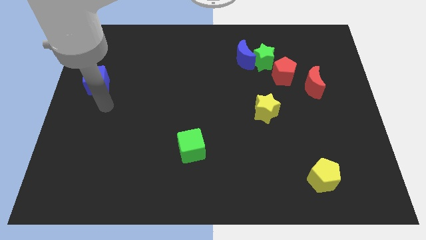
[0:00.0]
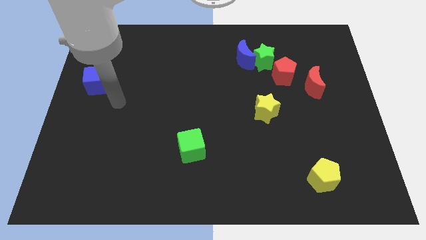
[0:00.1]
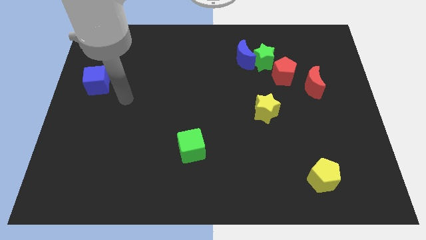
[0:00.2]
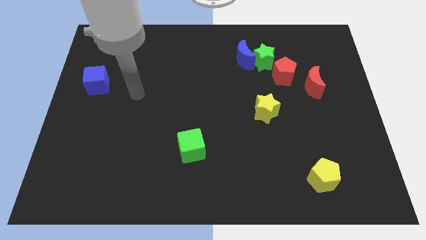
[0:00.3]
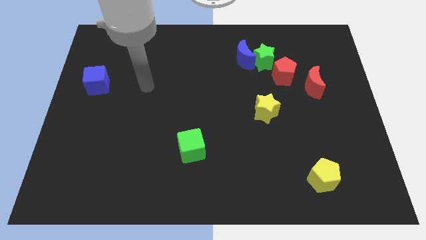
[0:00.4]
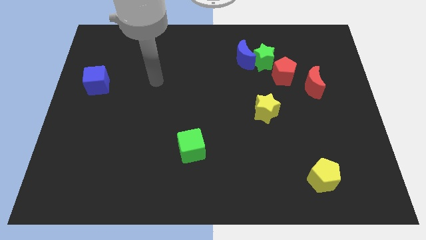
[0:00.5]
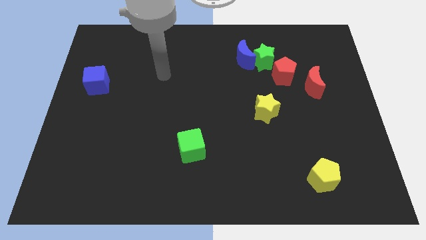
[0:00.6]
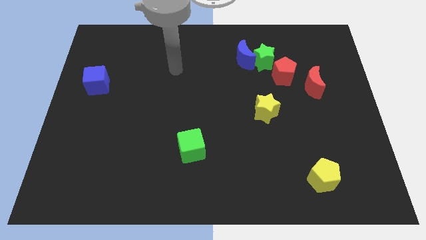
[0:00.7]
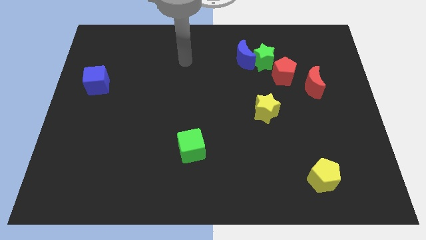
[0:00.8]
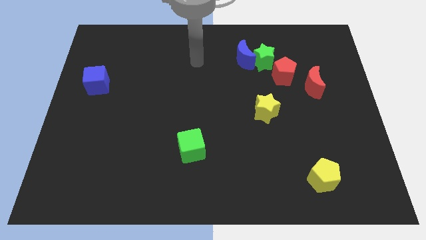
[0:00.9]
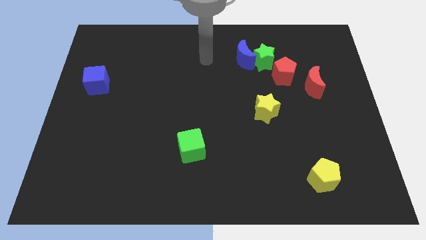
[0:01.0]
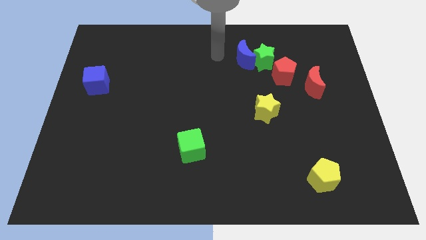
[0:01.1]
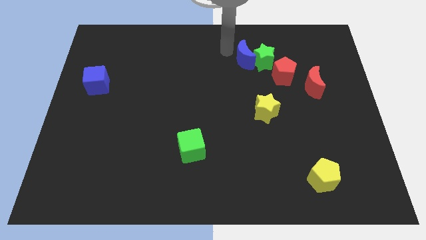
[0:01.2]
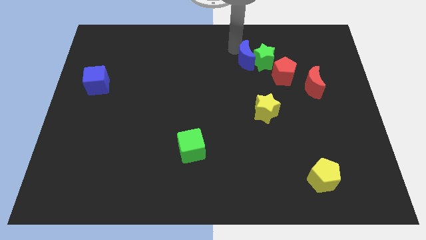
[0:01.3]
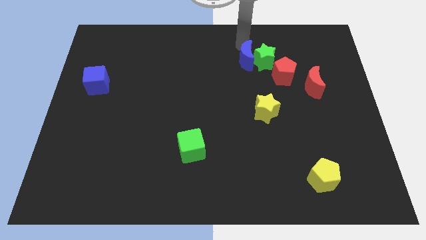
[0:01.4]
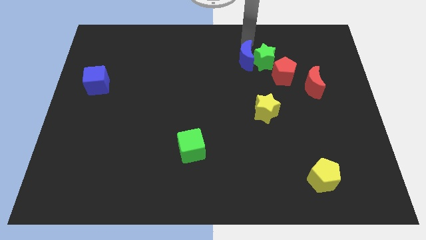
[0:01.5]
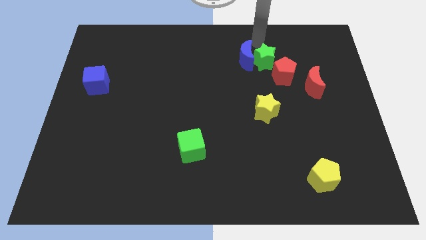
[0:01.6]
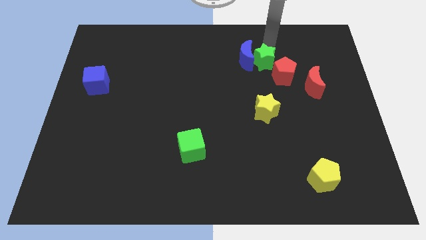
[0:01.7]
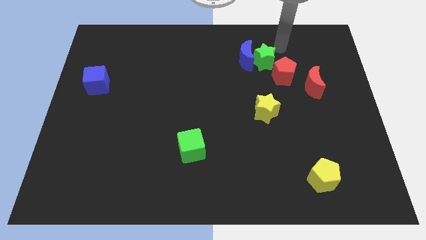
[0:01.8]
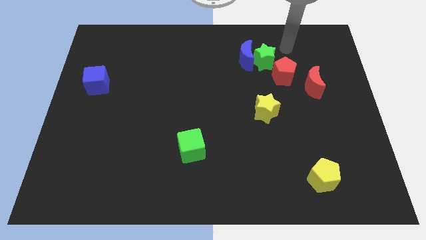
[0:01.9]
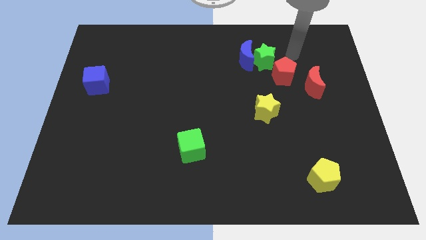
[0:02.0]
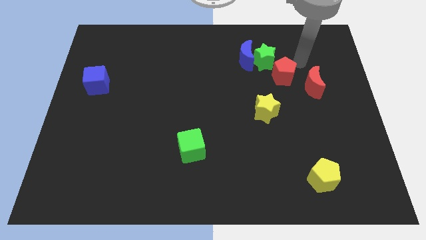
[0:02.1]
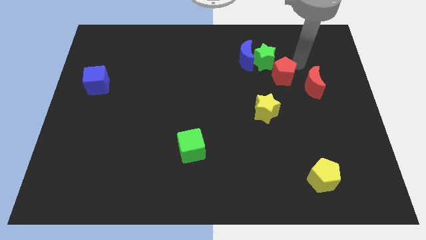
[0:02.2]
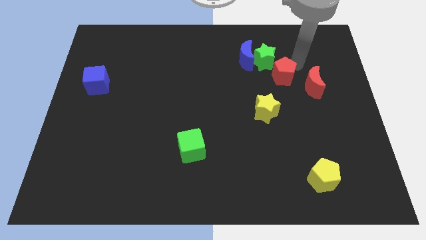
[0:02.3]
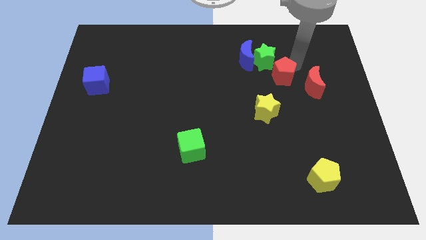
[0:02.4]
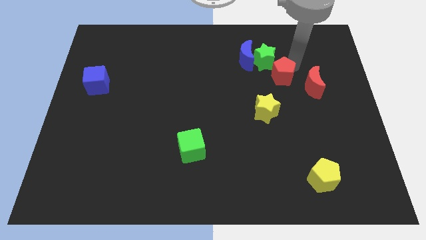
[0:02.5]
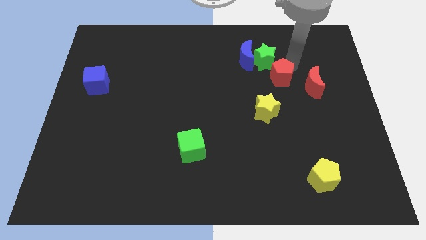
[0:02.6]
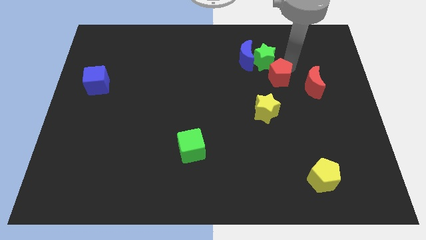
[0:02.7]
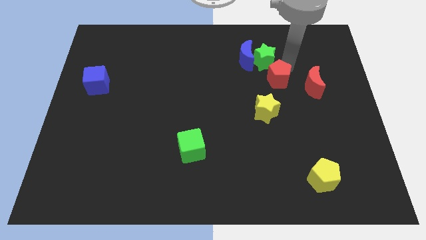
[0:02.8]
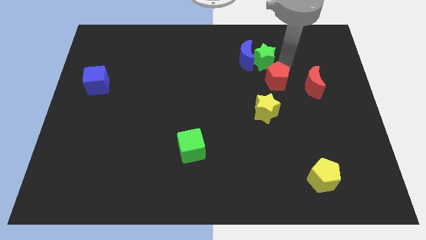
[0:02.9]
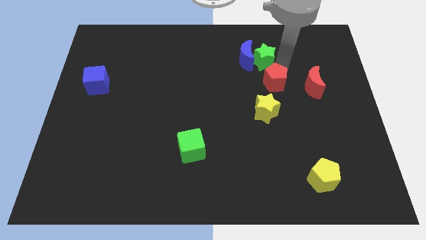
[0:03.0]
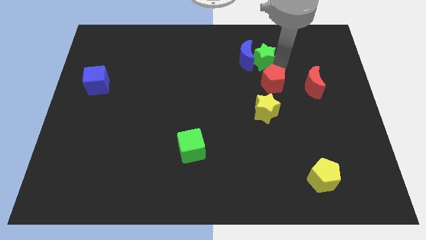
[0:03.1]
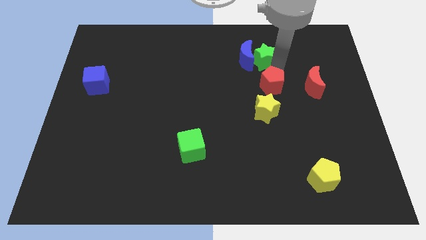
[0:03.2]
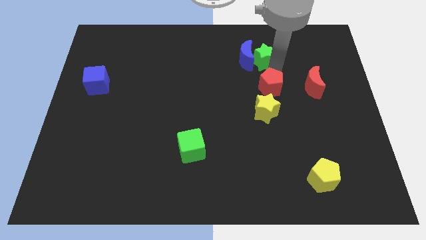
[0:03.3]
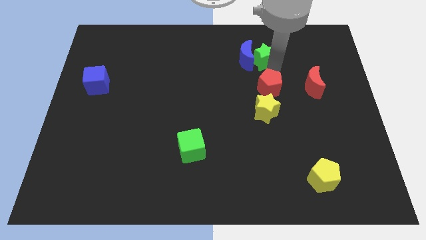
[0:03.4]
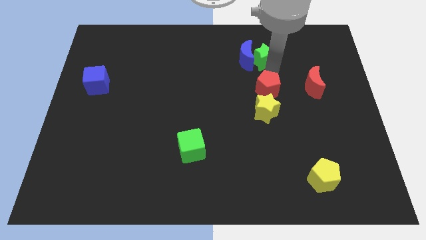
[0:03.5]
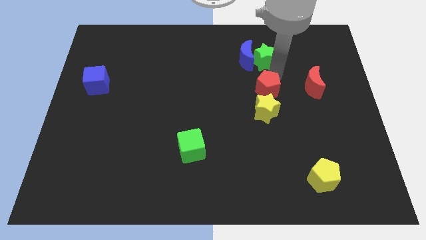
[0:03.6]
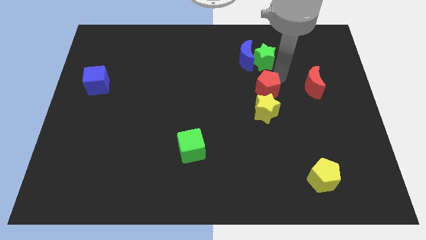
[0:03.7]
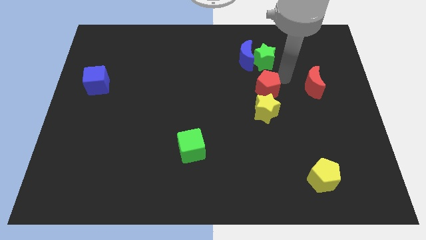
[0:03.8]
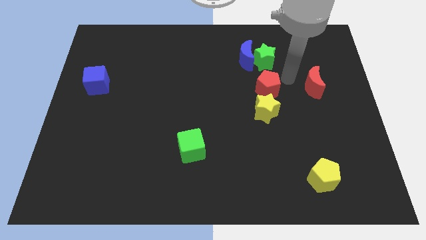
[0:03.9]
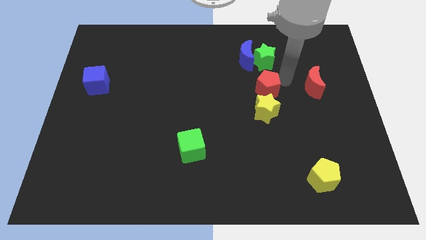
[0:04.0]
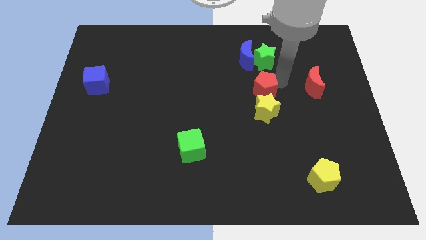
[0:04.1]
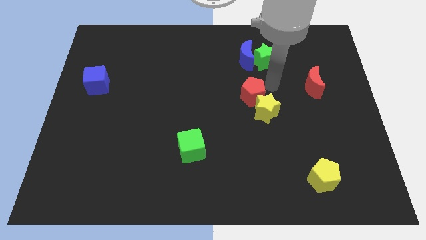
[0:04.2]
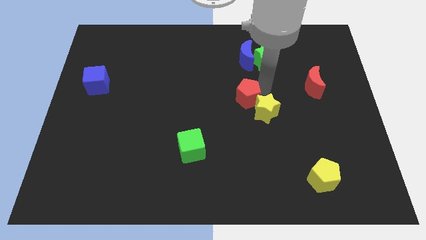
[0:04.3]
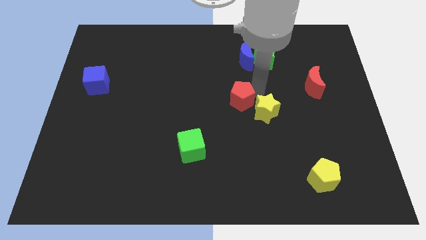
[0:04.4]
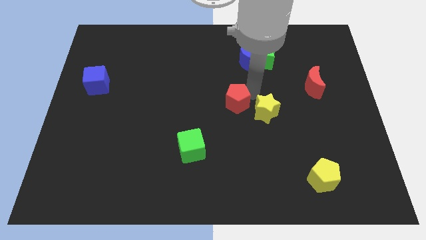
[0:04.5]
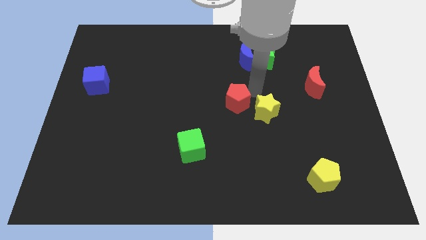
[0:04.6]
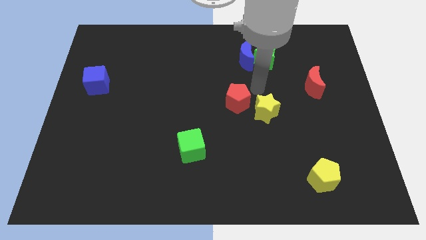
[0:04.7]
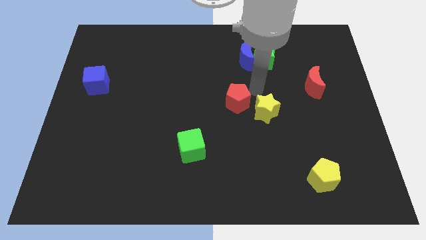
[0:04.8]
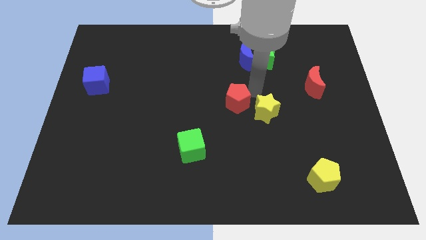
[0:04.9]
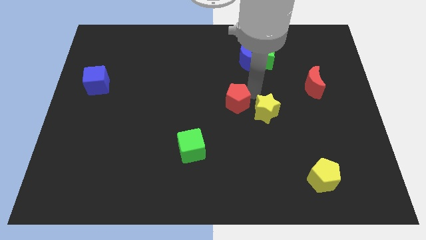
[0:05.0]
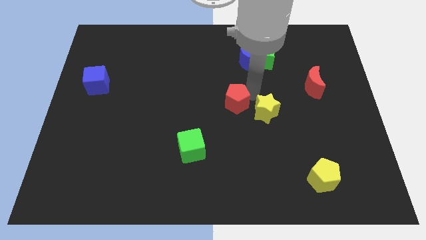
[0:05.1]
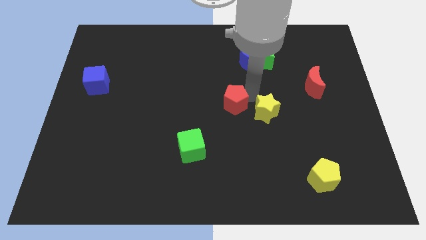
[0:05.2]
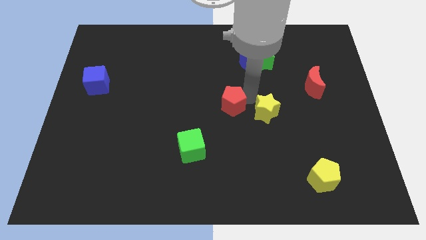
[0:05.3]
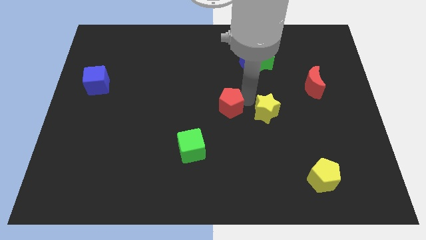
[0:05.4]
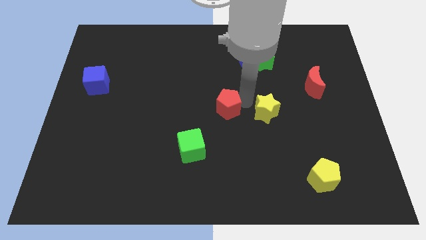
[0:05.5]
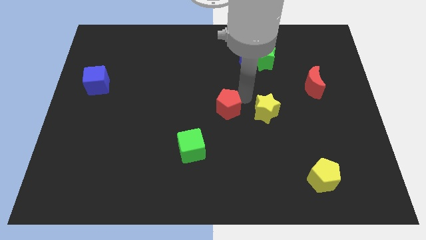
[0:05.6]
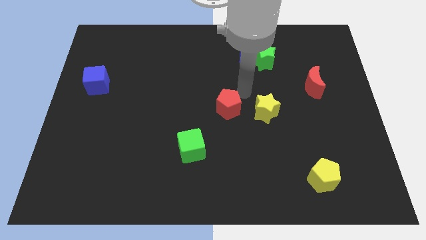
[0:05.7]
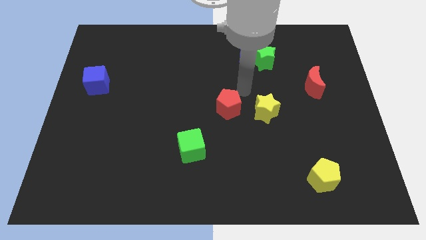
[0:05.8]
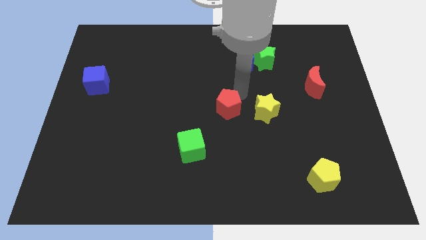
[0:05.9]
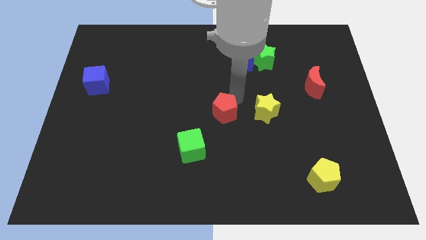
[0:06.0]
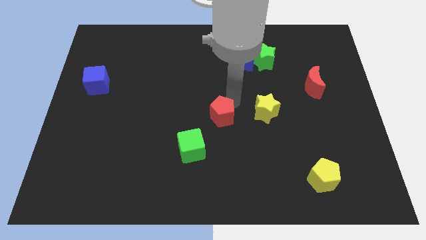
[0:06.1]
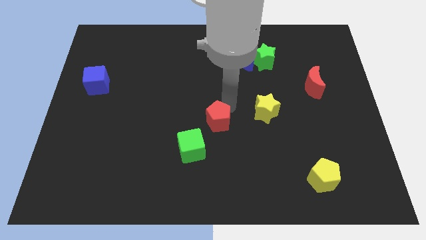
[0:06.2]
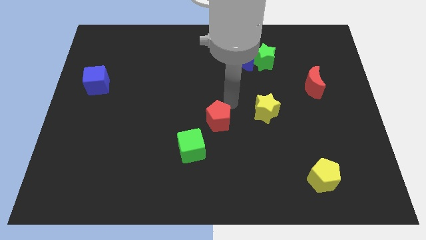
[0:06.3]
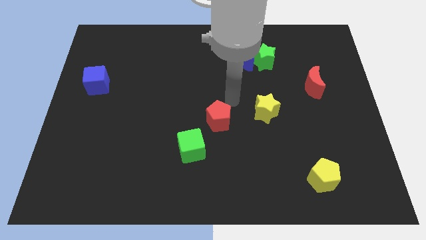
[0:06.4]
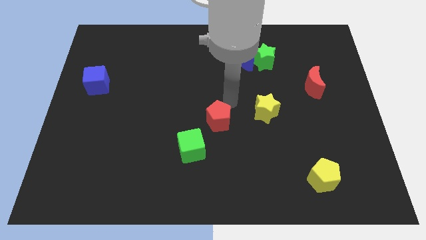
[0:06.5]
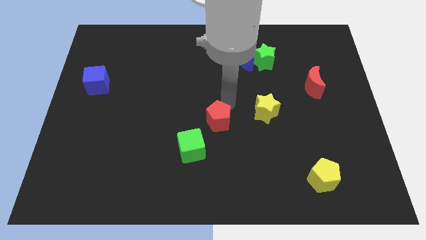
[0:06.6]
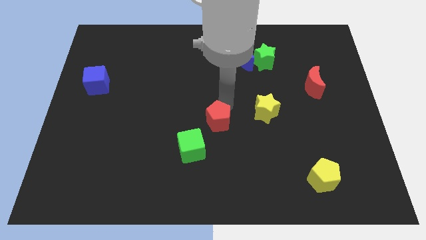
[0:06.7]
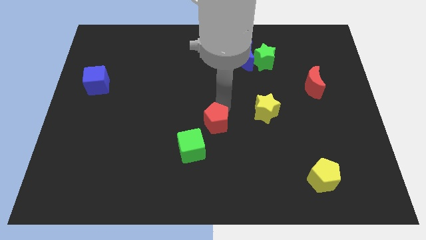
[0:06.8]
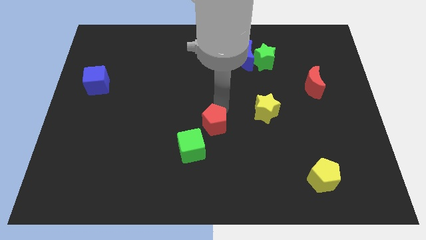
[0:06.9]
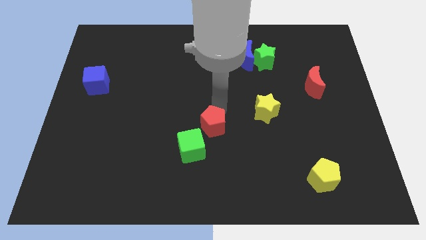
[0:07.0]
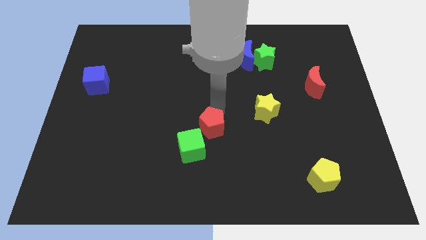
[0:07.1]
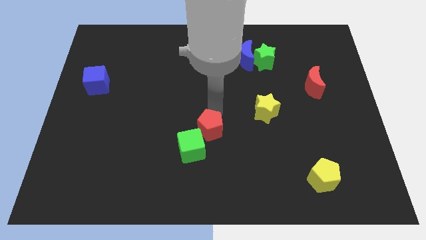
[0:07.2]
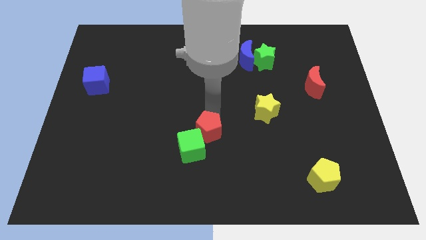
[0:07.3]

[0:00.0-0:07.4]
put the red pentagon towards the green cube
